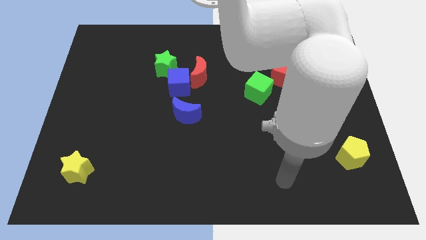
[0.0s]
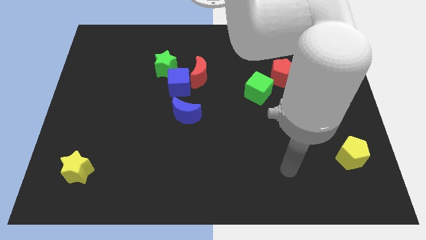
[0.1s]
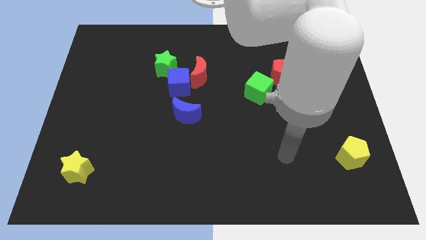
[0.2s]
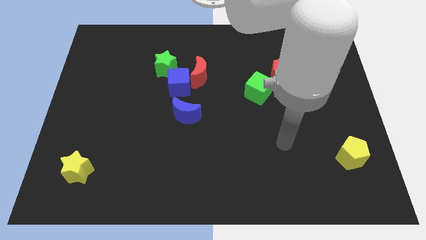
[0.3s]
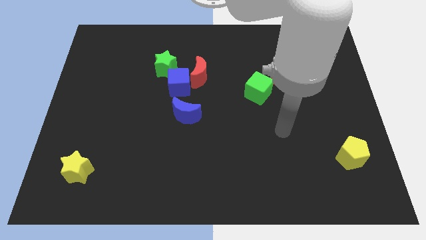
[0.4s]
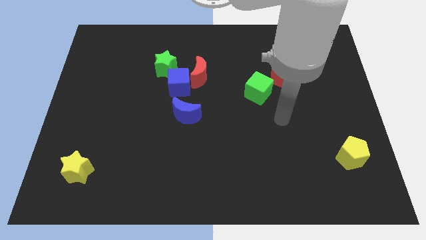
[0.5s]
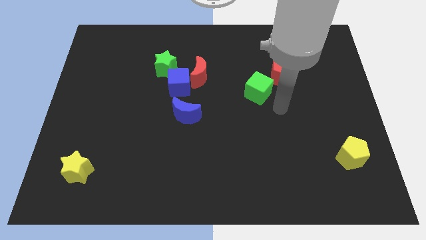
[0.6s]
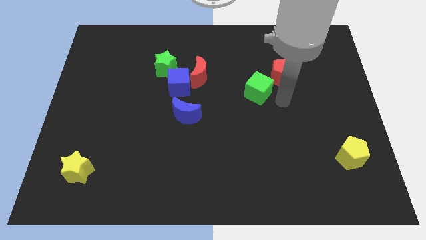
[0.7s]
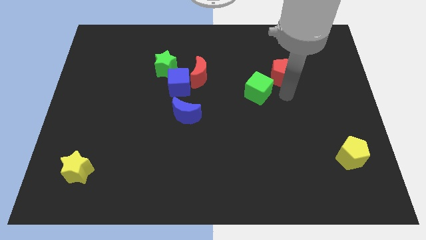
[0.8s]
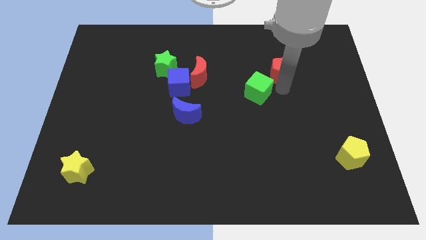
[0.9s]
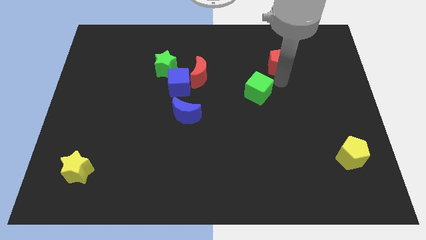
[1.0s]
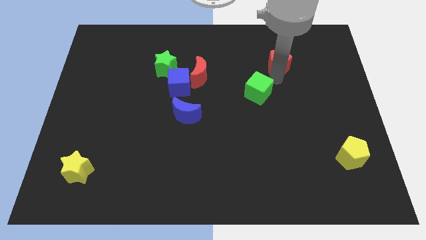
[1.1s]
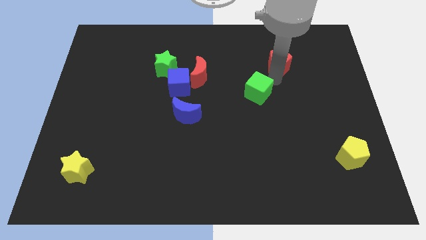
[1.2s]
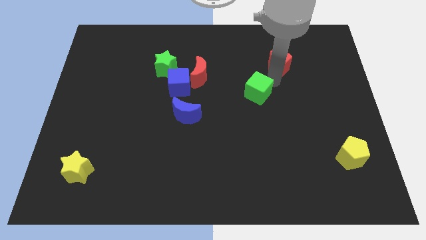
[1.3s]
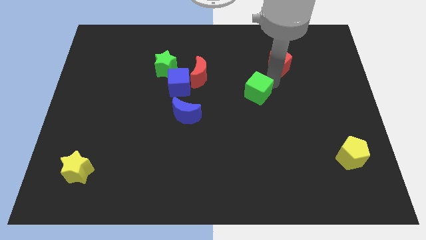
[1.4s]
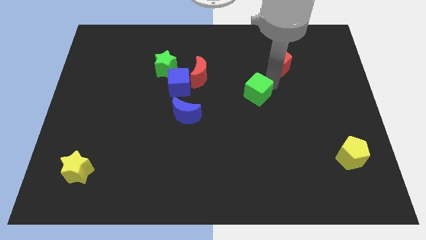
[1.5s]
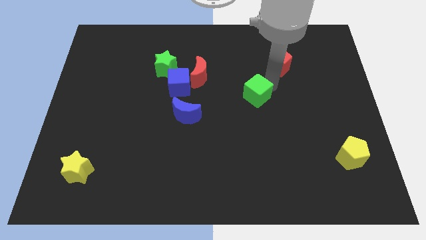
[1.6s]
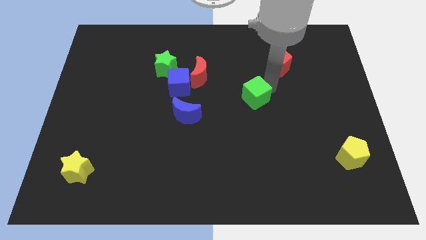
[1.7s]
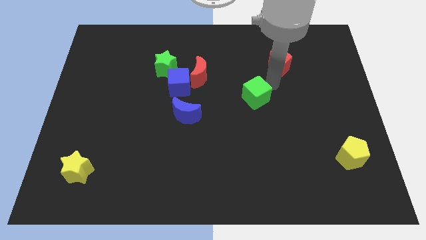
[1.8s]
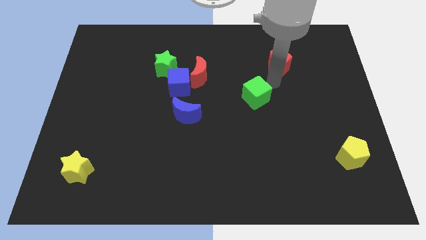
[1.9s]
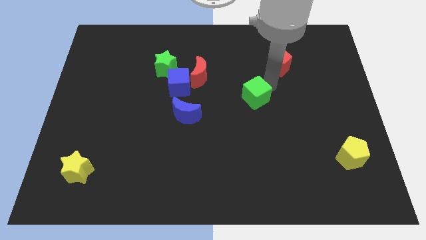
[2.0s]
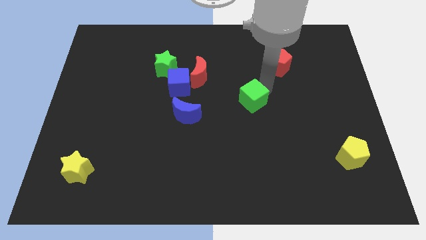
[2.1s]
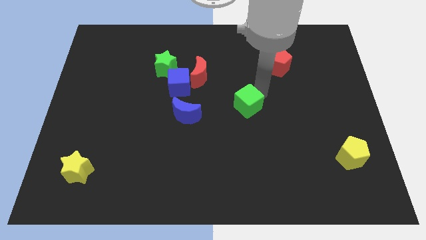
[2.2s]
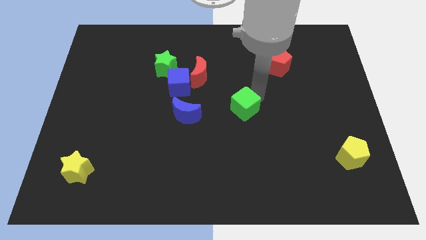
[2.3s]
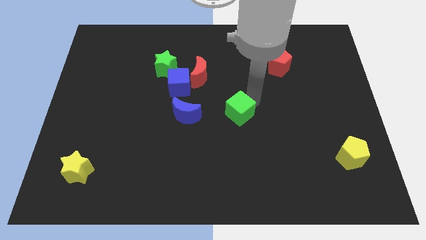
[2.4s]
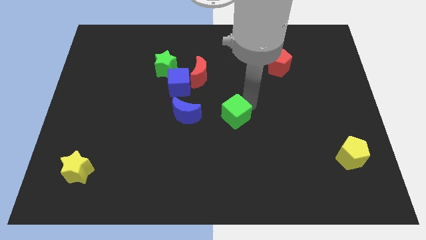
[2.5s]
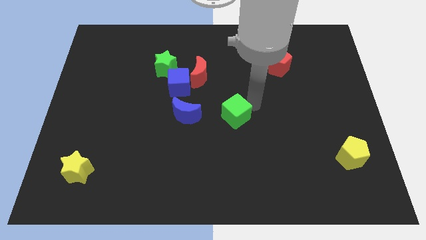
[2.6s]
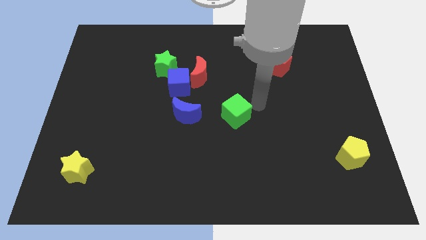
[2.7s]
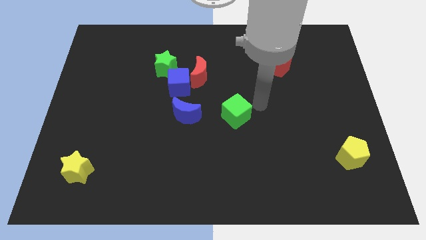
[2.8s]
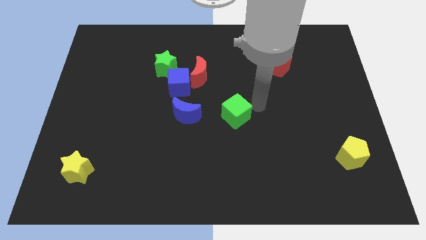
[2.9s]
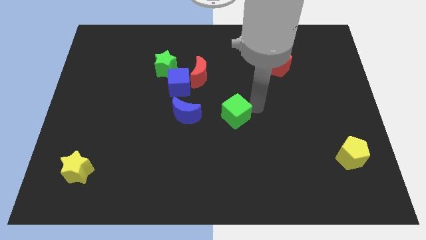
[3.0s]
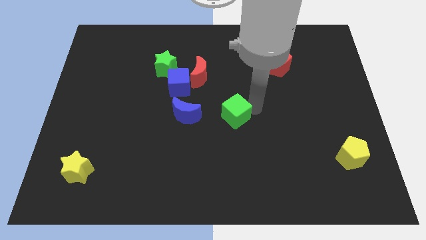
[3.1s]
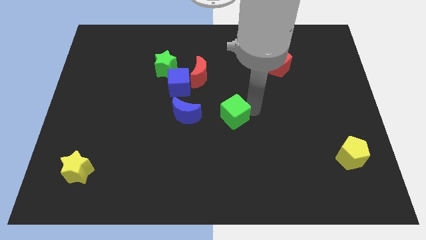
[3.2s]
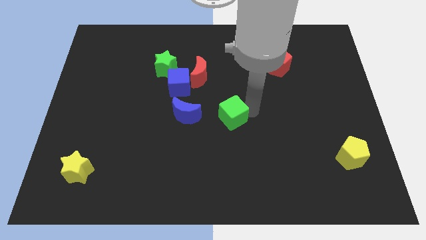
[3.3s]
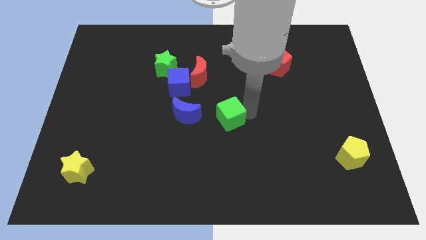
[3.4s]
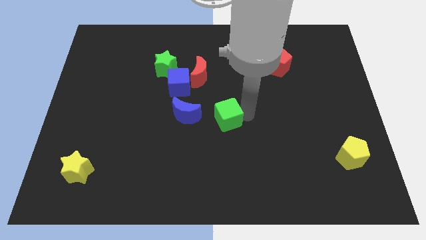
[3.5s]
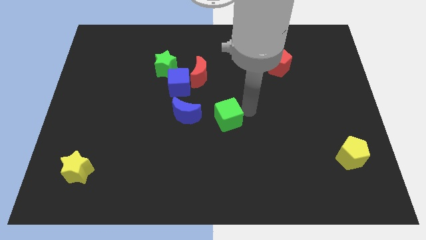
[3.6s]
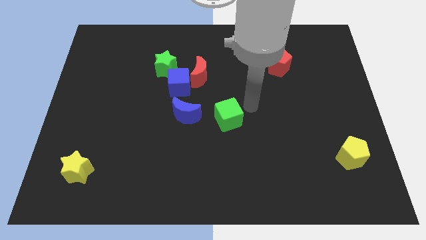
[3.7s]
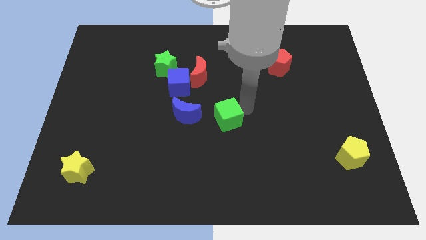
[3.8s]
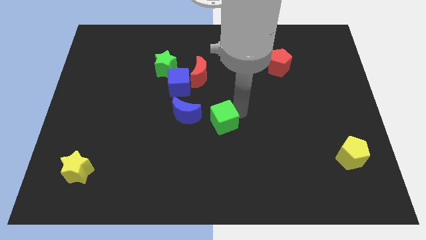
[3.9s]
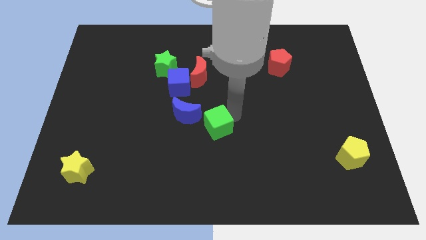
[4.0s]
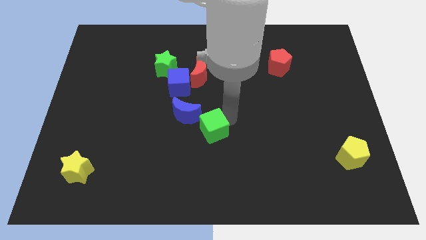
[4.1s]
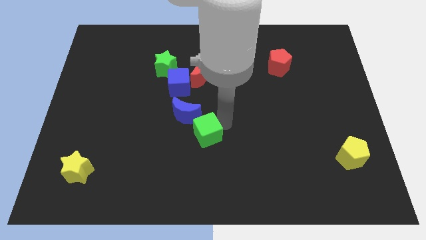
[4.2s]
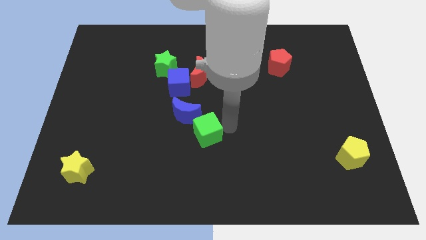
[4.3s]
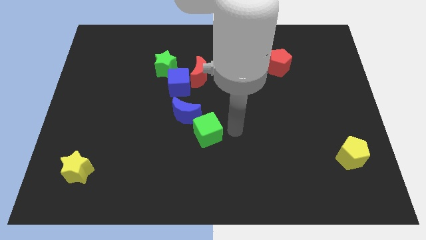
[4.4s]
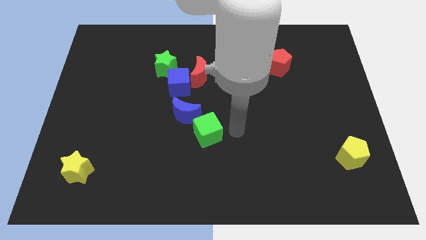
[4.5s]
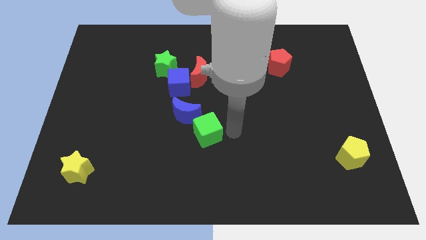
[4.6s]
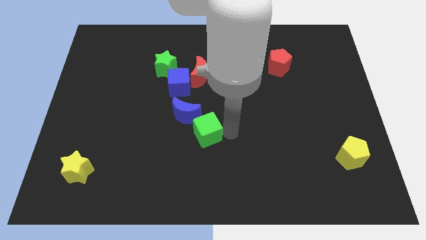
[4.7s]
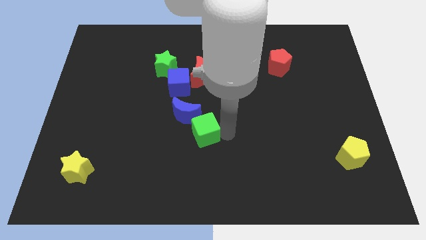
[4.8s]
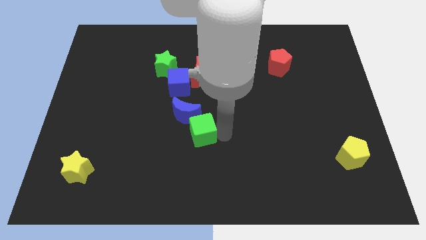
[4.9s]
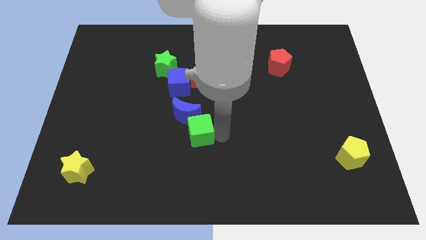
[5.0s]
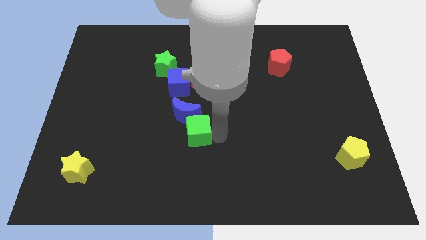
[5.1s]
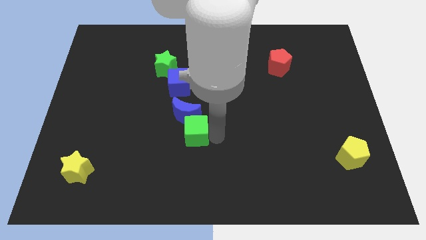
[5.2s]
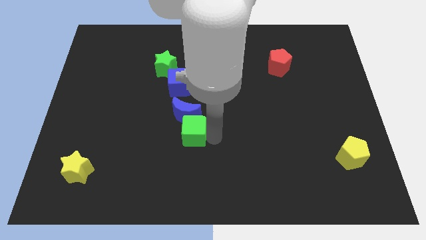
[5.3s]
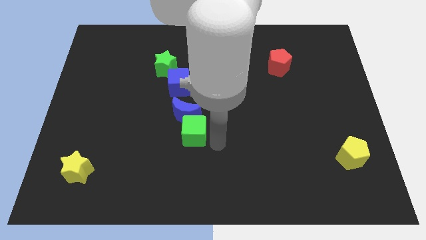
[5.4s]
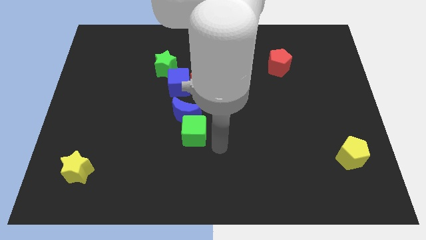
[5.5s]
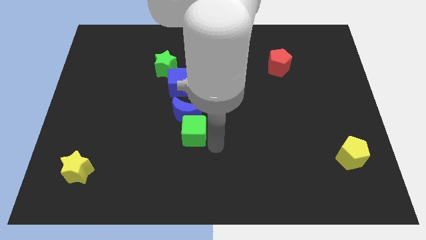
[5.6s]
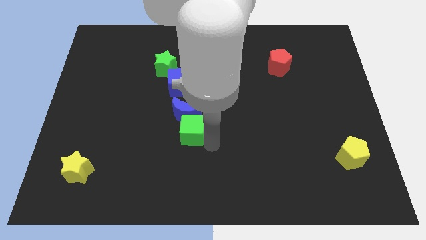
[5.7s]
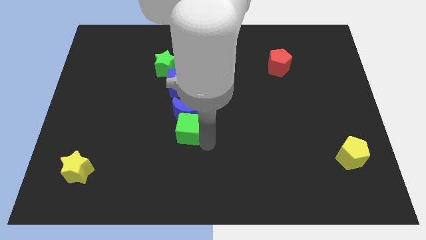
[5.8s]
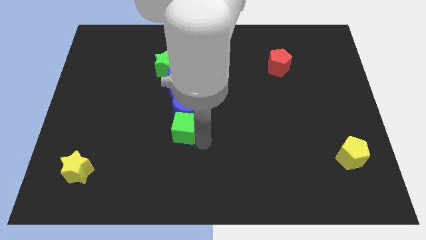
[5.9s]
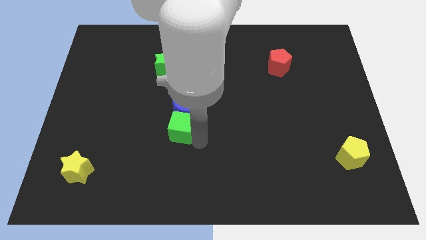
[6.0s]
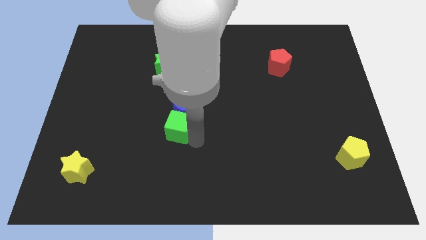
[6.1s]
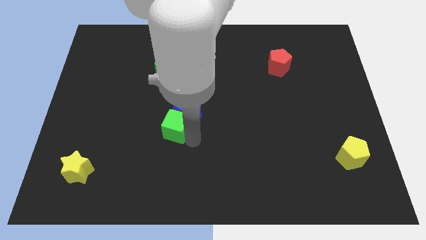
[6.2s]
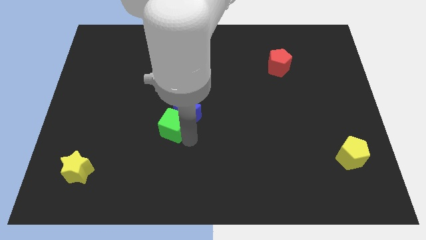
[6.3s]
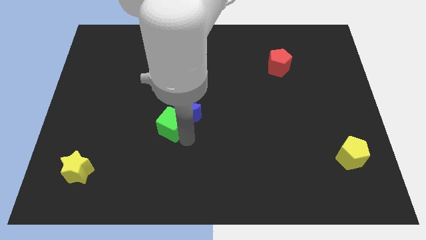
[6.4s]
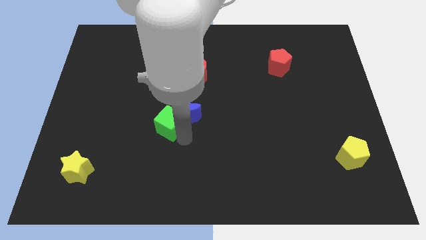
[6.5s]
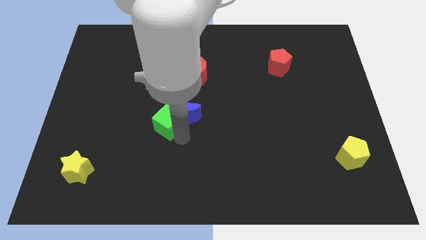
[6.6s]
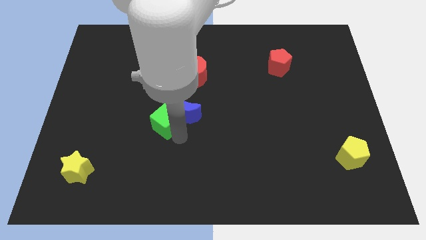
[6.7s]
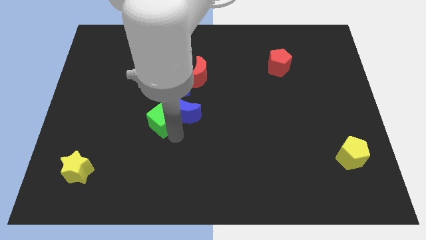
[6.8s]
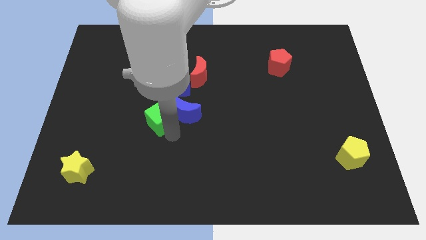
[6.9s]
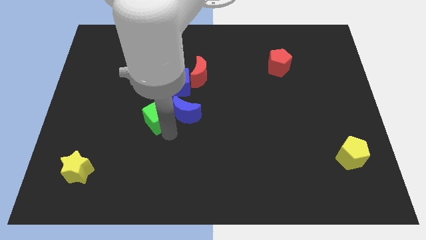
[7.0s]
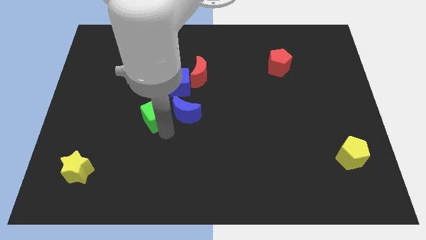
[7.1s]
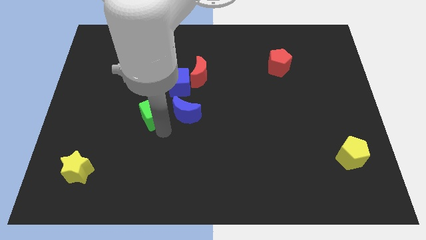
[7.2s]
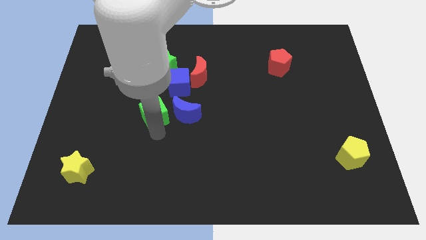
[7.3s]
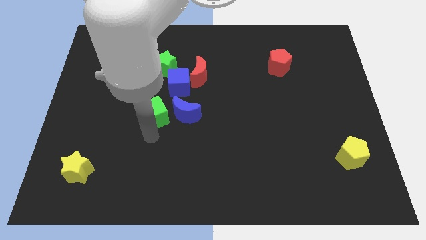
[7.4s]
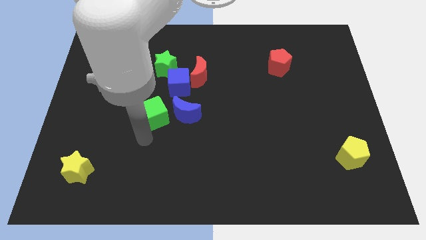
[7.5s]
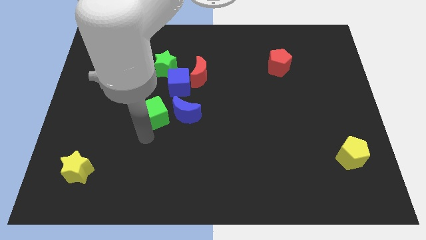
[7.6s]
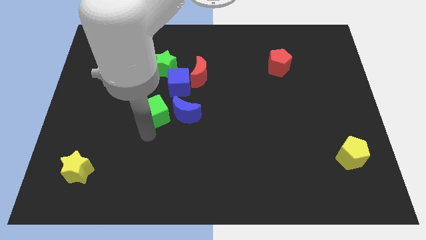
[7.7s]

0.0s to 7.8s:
slide the green cube to the top left of the blue moon

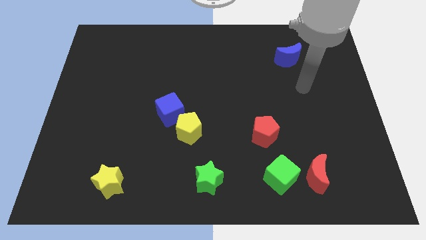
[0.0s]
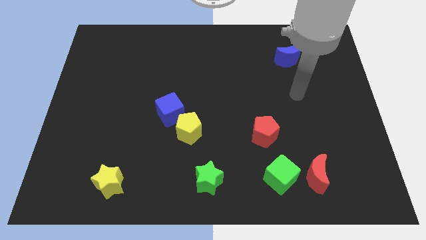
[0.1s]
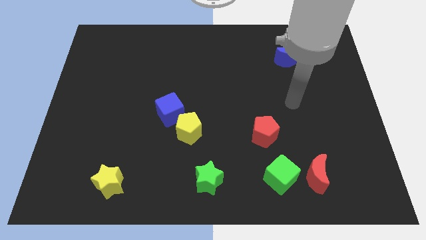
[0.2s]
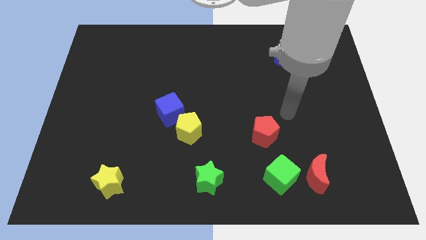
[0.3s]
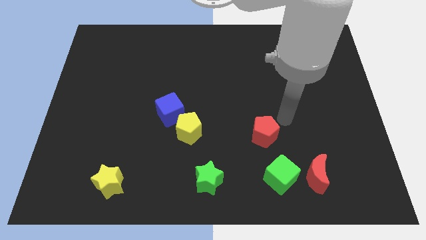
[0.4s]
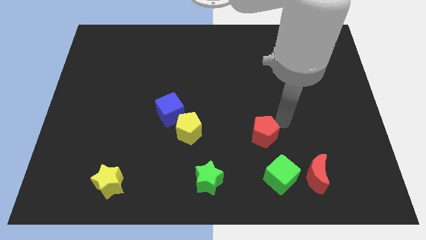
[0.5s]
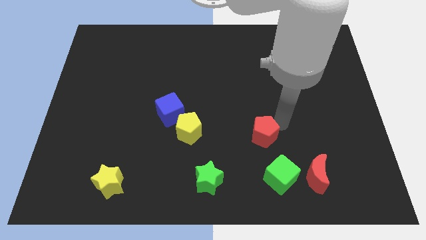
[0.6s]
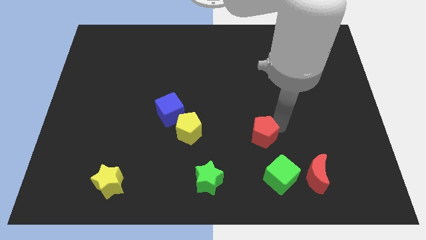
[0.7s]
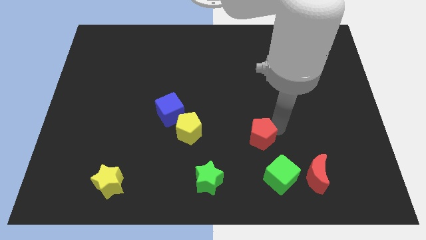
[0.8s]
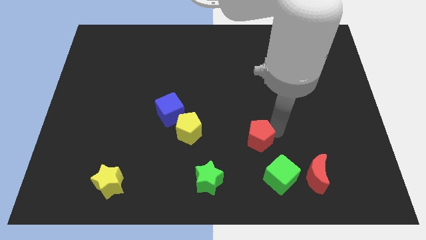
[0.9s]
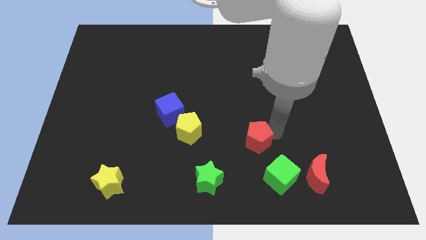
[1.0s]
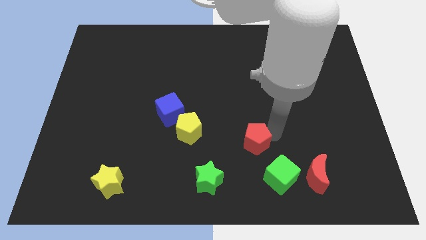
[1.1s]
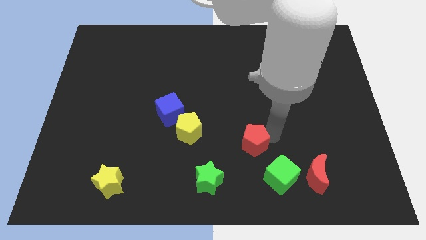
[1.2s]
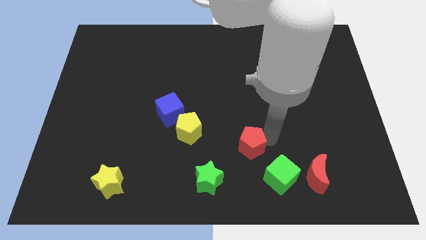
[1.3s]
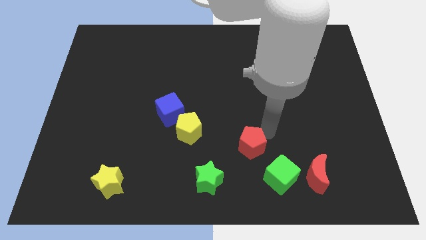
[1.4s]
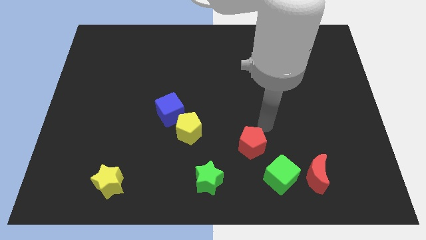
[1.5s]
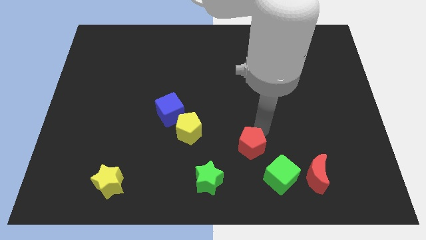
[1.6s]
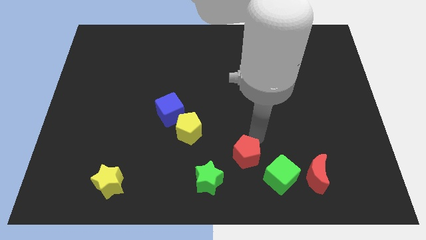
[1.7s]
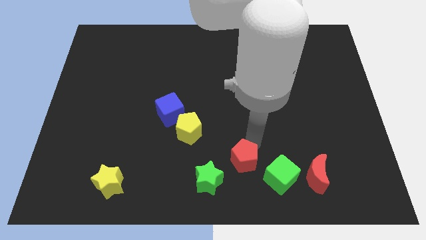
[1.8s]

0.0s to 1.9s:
push the red pentagon to the left side of the green cube
